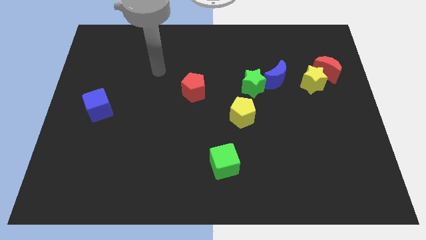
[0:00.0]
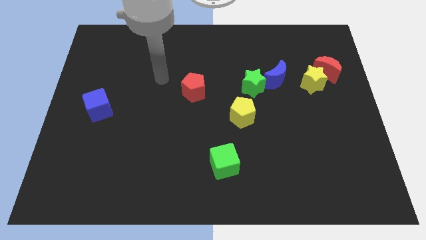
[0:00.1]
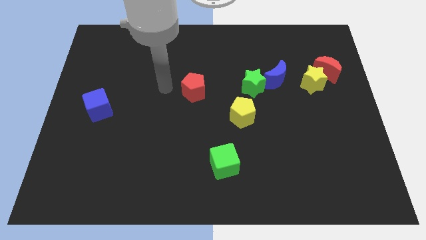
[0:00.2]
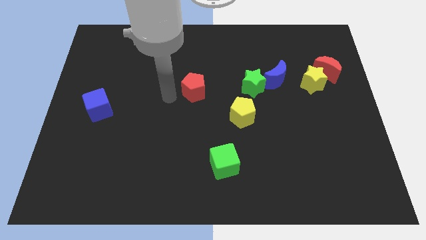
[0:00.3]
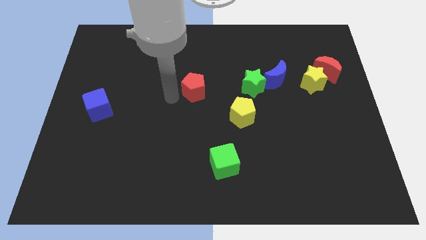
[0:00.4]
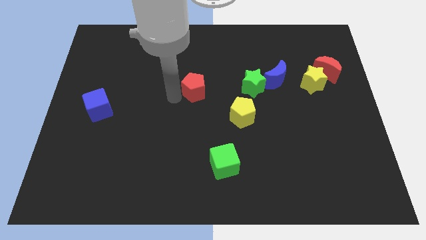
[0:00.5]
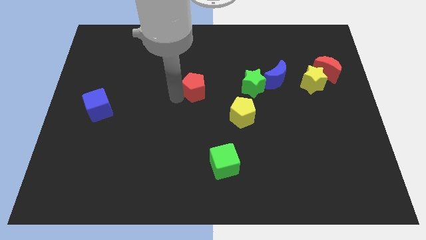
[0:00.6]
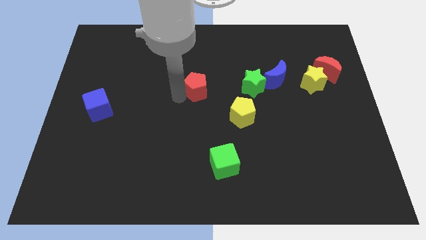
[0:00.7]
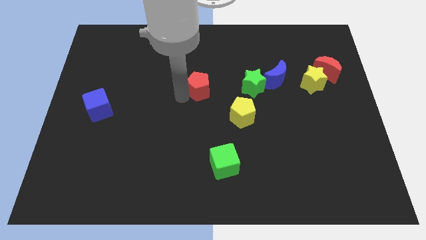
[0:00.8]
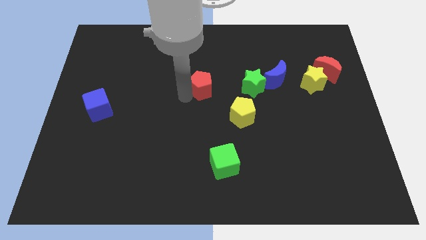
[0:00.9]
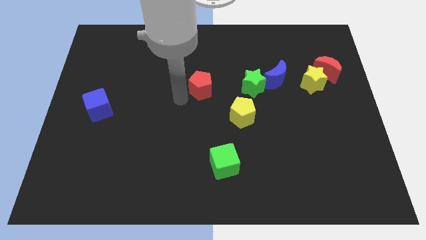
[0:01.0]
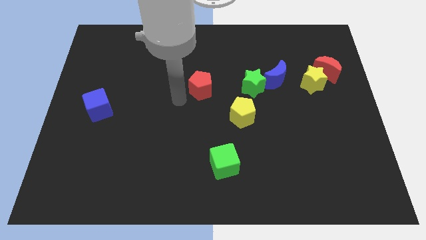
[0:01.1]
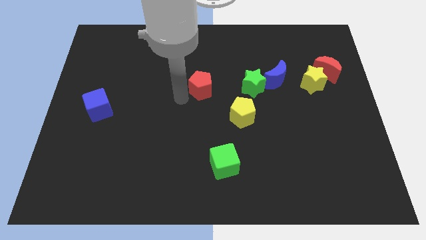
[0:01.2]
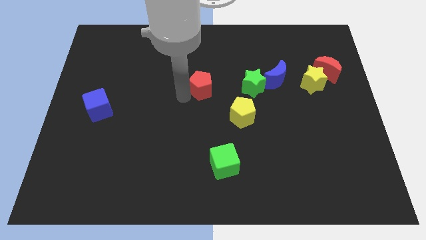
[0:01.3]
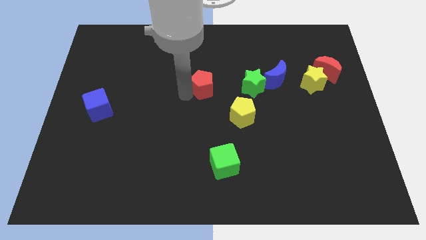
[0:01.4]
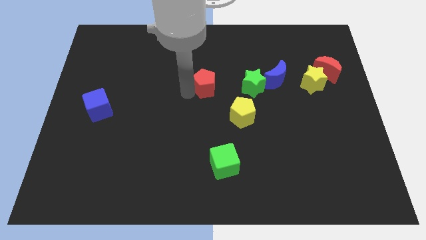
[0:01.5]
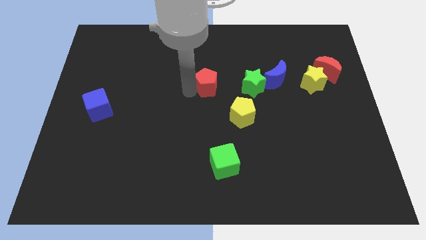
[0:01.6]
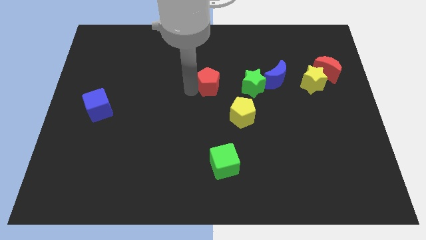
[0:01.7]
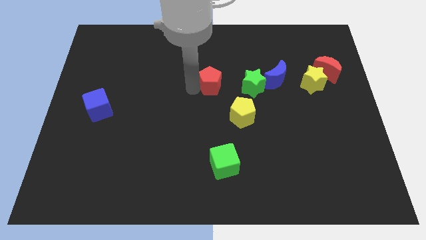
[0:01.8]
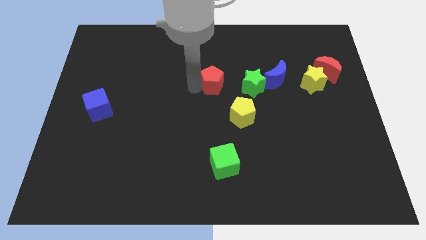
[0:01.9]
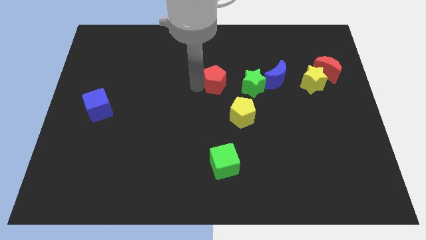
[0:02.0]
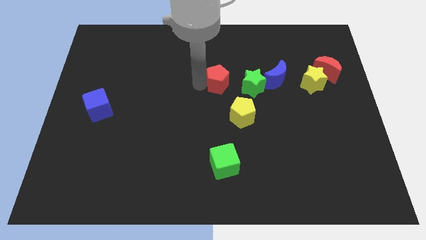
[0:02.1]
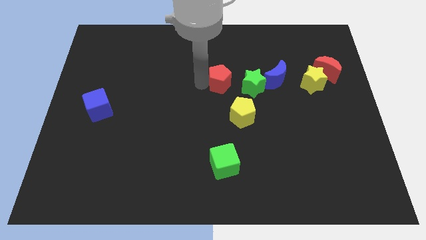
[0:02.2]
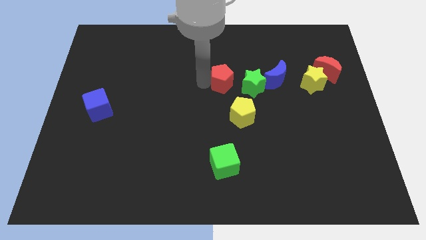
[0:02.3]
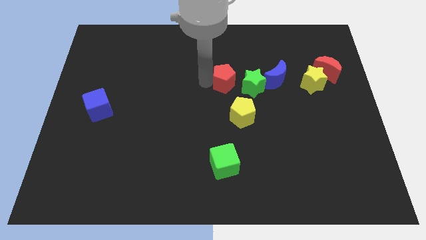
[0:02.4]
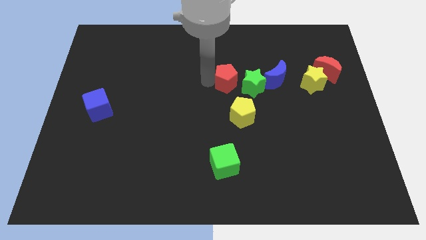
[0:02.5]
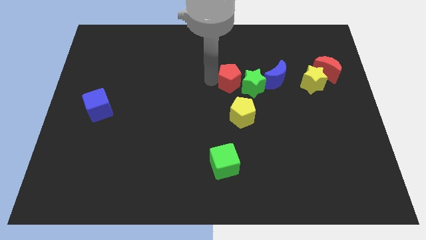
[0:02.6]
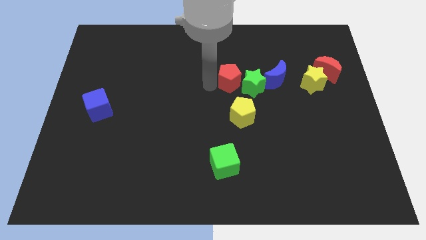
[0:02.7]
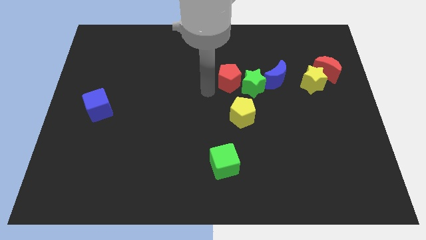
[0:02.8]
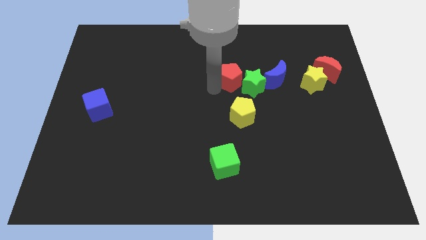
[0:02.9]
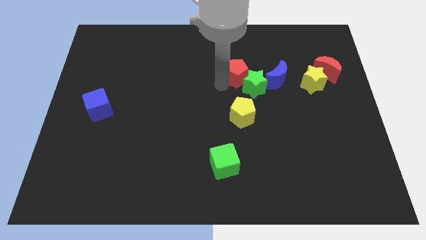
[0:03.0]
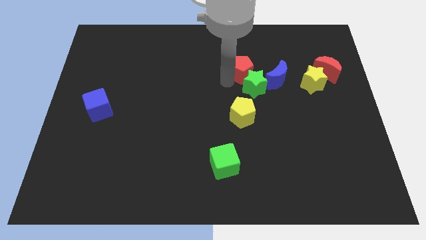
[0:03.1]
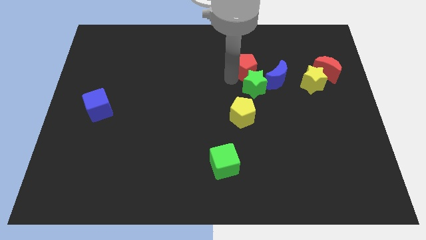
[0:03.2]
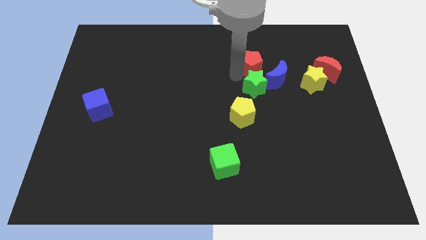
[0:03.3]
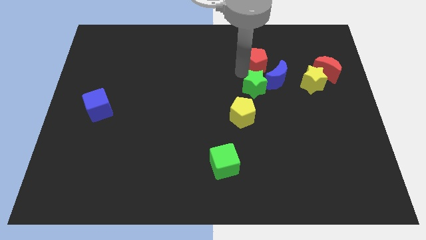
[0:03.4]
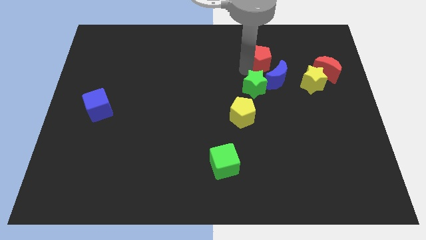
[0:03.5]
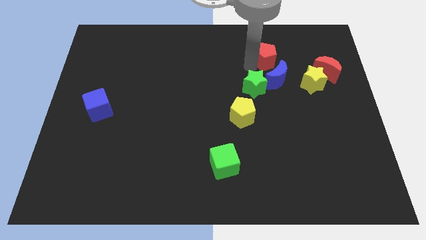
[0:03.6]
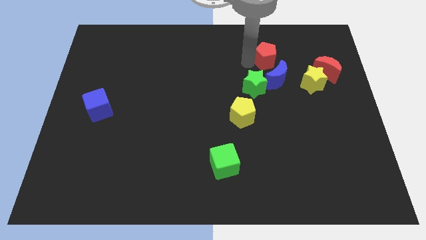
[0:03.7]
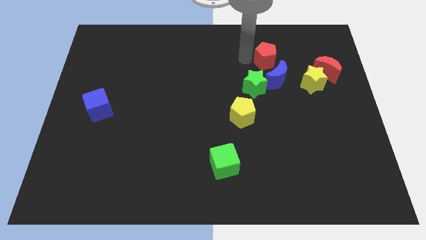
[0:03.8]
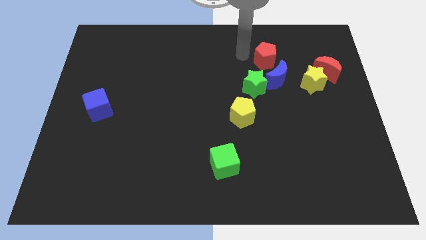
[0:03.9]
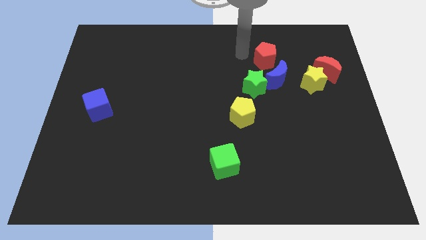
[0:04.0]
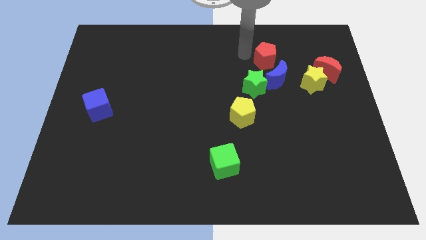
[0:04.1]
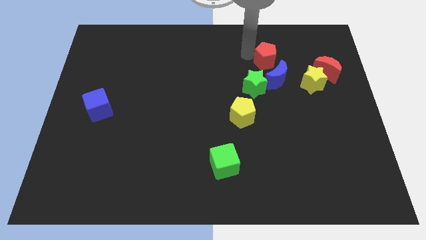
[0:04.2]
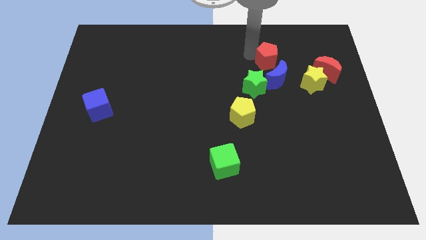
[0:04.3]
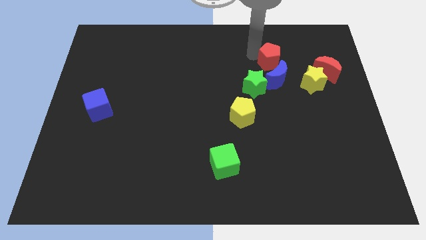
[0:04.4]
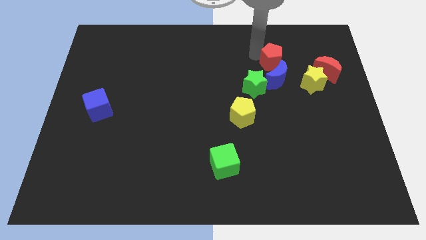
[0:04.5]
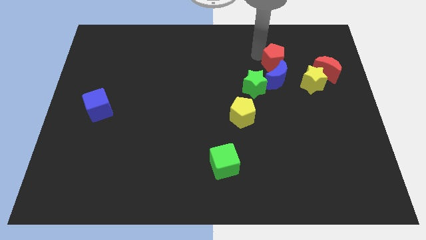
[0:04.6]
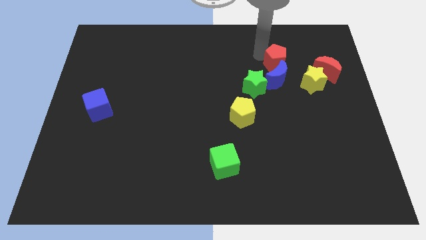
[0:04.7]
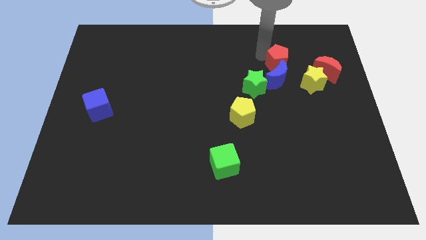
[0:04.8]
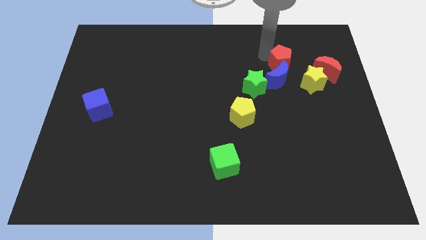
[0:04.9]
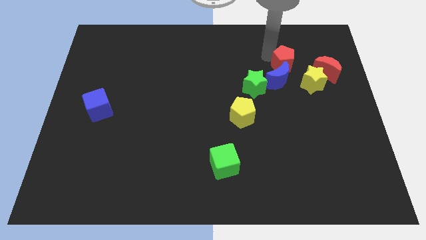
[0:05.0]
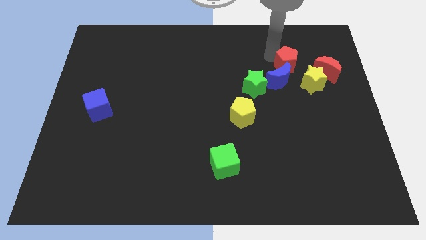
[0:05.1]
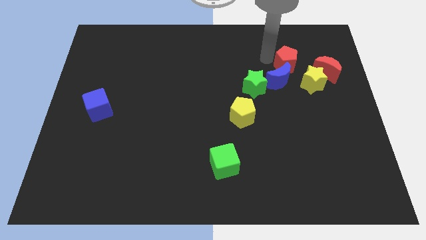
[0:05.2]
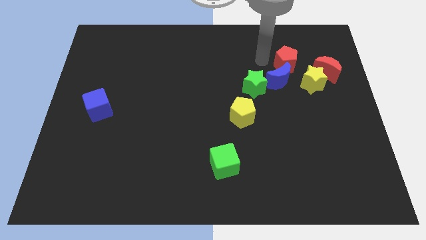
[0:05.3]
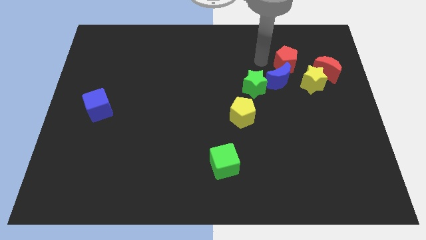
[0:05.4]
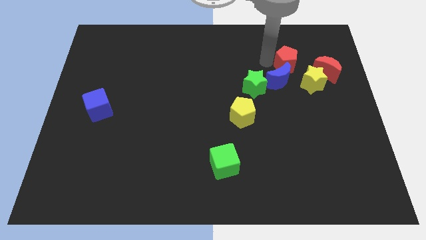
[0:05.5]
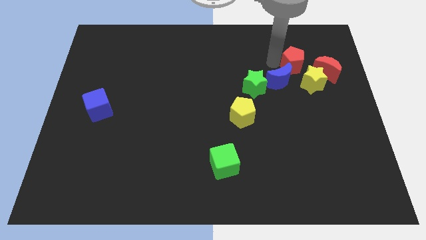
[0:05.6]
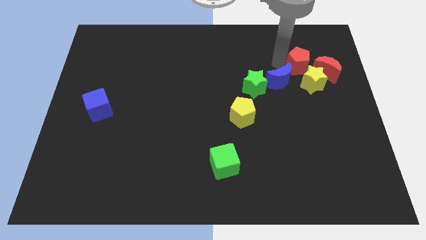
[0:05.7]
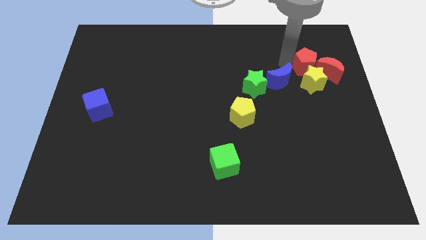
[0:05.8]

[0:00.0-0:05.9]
push the red pentagon next to the red moon

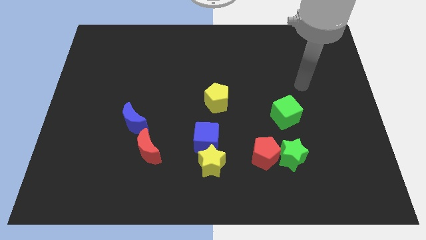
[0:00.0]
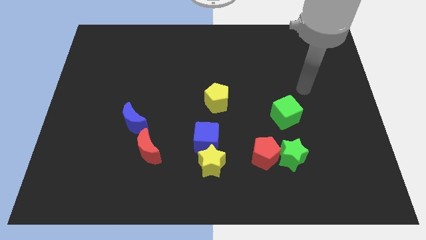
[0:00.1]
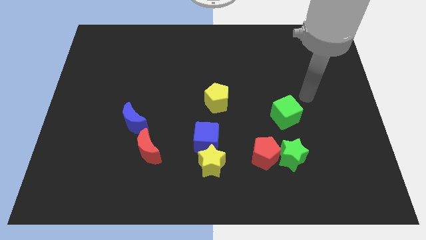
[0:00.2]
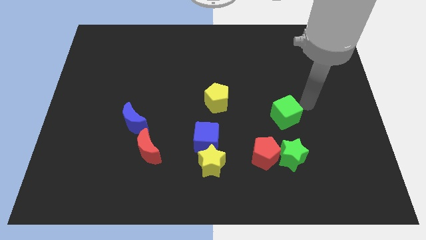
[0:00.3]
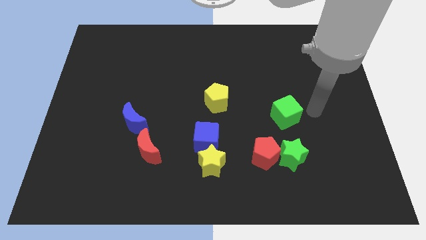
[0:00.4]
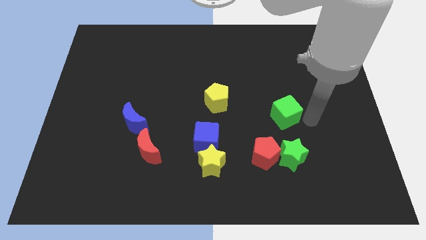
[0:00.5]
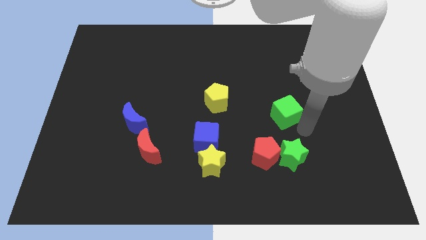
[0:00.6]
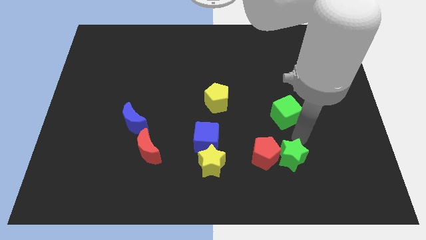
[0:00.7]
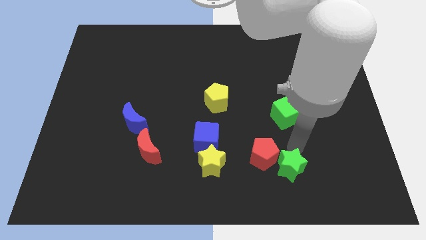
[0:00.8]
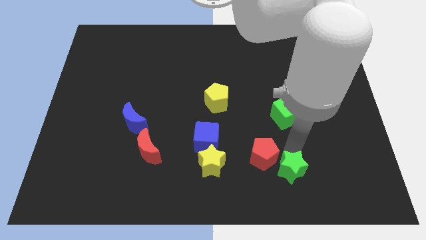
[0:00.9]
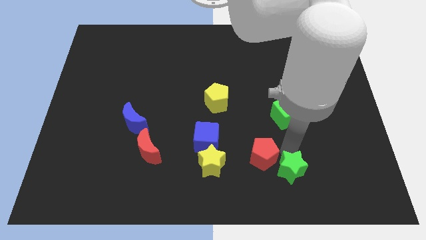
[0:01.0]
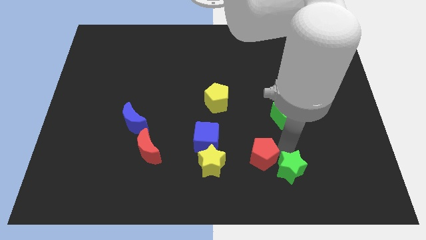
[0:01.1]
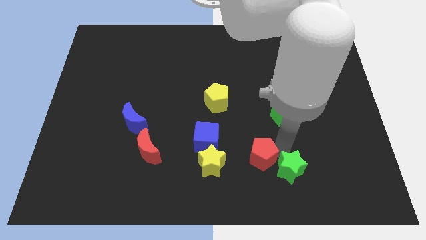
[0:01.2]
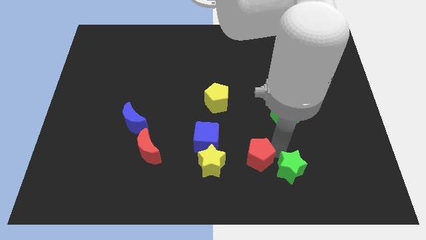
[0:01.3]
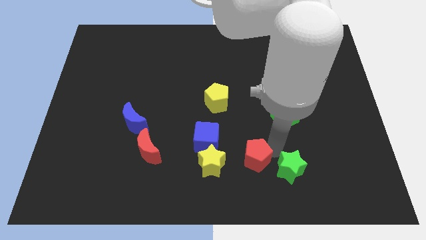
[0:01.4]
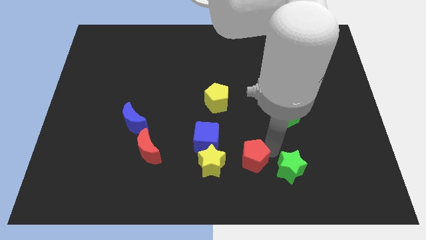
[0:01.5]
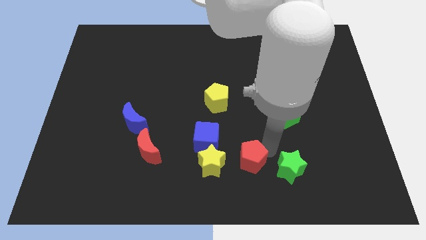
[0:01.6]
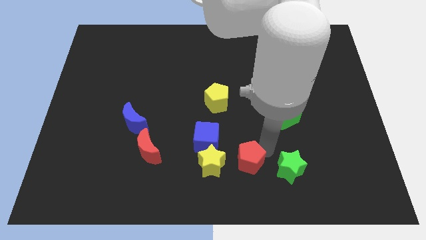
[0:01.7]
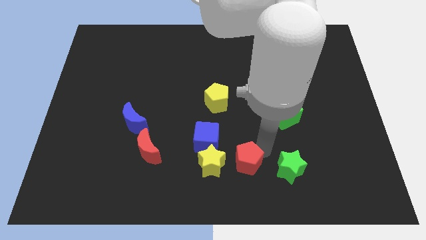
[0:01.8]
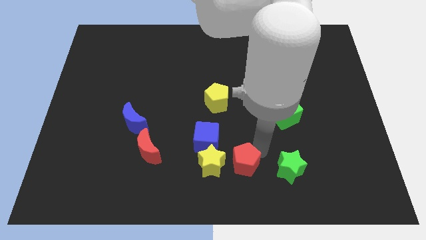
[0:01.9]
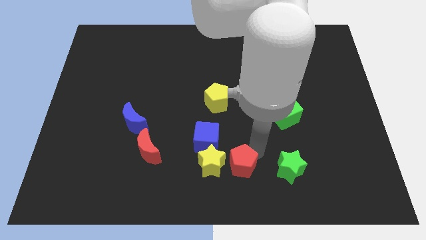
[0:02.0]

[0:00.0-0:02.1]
push the red pentagon to the yellow star
